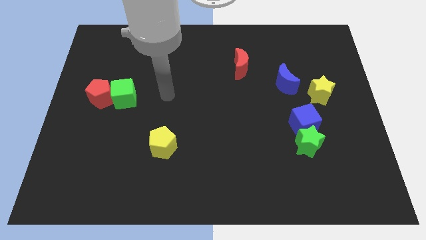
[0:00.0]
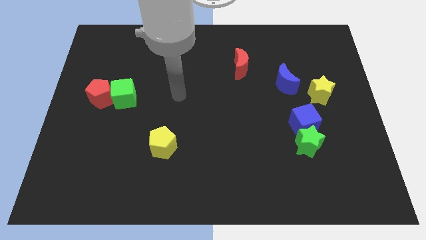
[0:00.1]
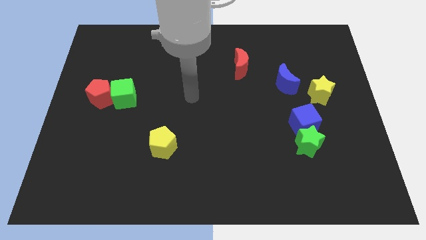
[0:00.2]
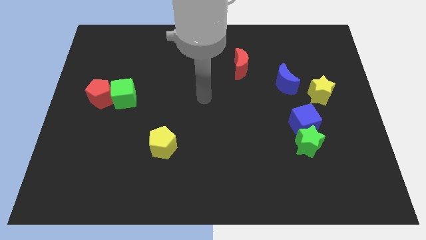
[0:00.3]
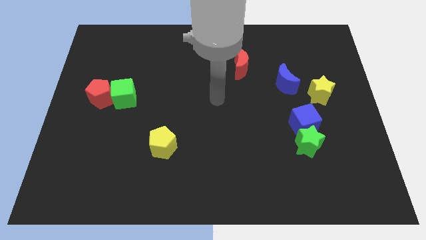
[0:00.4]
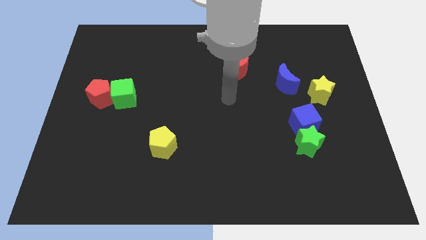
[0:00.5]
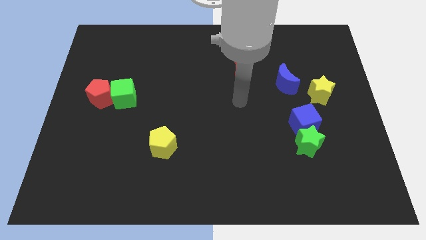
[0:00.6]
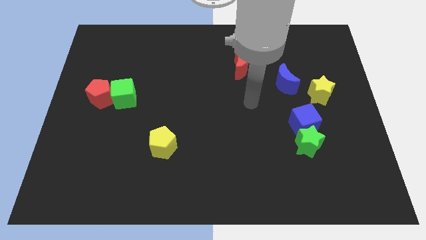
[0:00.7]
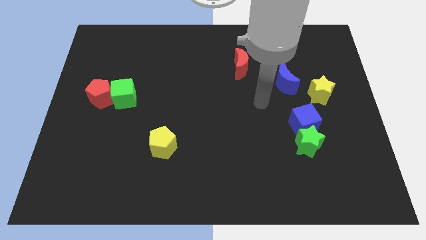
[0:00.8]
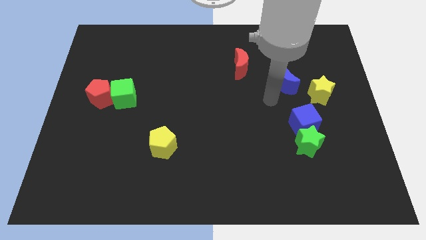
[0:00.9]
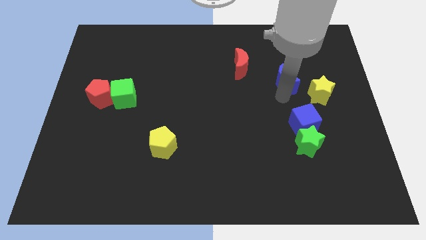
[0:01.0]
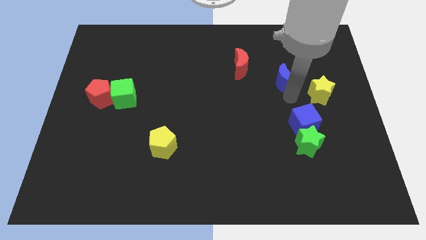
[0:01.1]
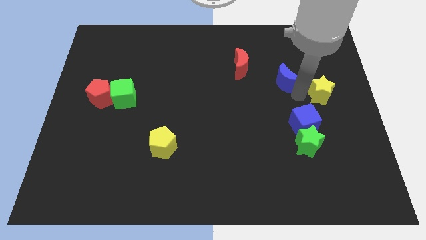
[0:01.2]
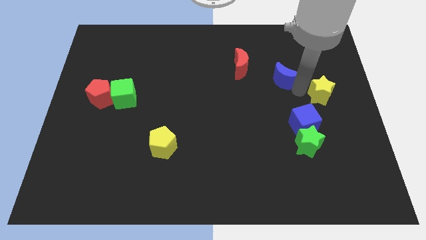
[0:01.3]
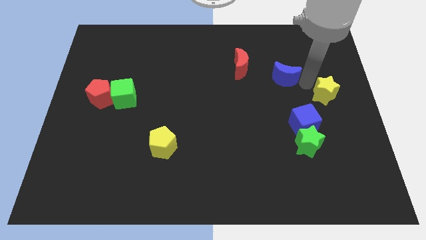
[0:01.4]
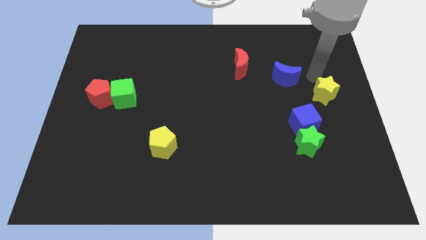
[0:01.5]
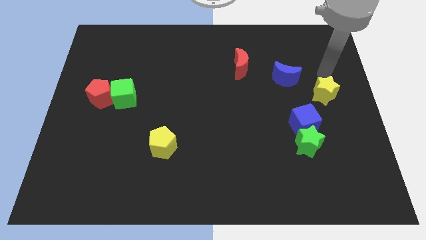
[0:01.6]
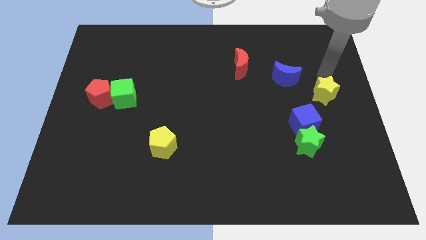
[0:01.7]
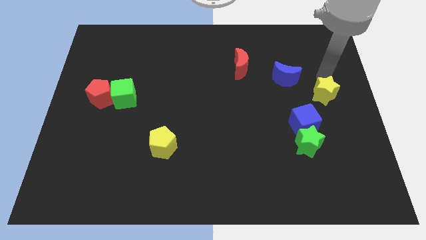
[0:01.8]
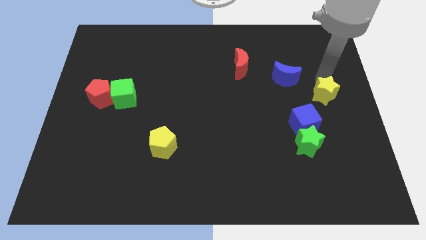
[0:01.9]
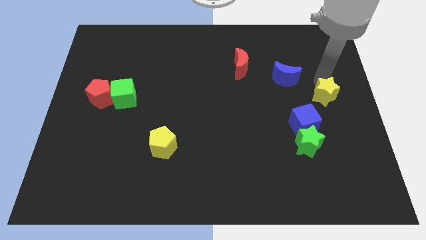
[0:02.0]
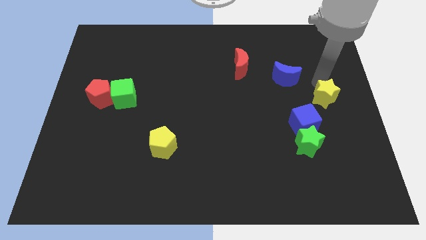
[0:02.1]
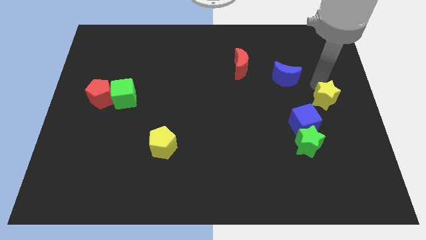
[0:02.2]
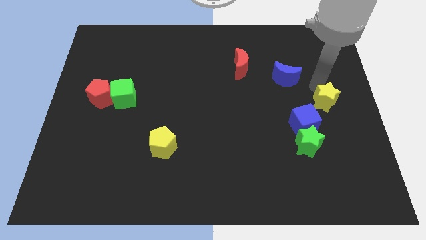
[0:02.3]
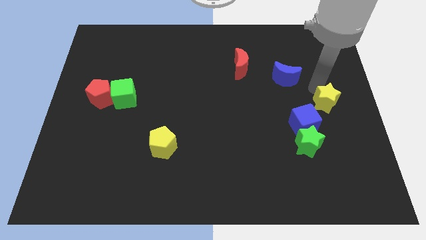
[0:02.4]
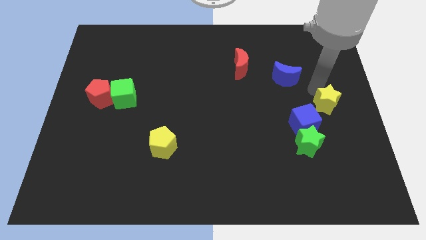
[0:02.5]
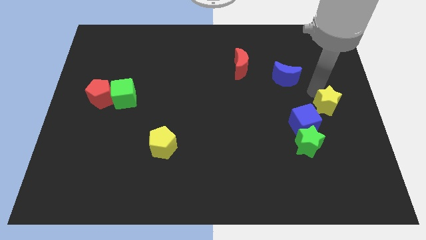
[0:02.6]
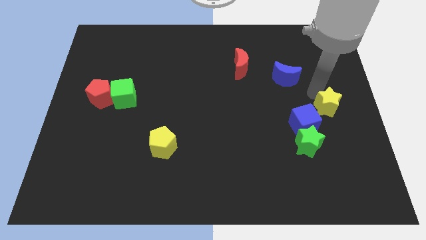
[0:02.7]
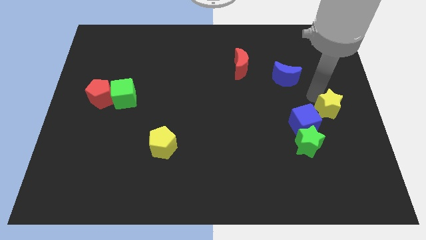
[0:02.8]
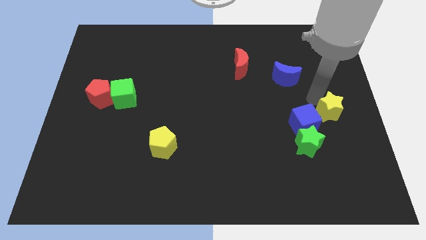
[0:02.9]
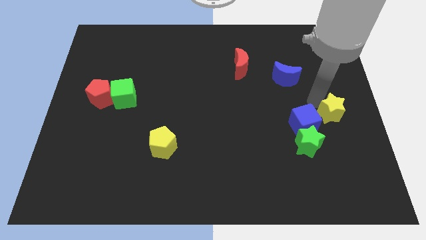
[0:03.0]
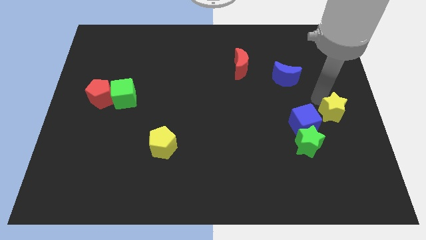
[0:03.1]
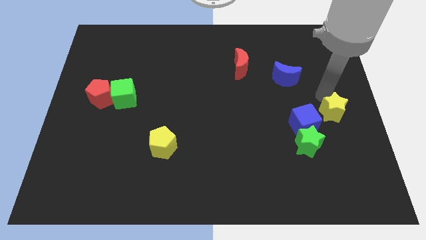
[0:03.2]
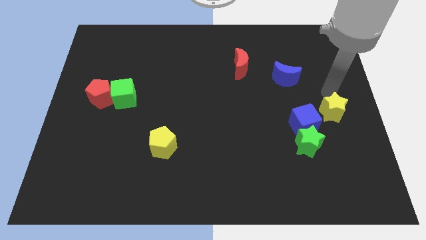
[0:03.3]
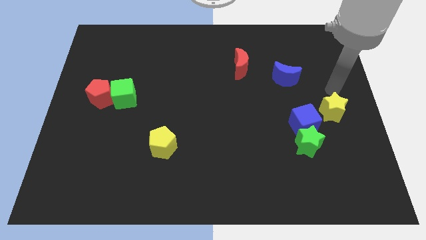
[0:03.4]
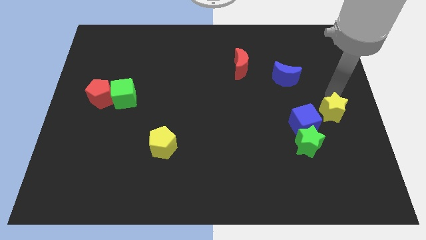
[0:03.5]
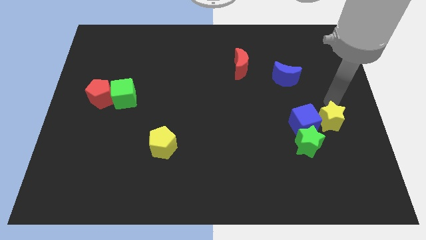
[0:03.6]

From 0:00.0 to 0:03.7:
slide the yellow star downwards a bit

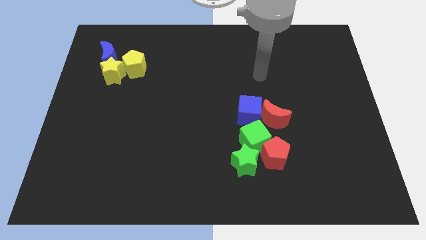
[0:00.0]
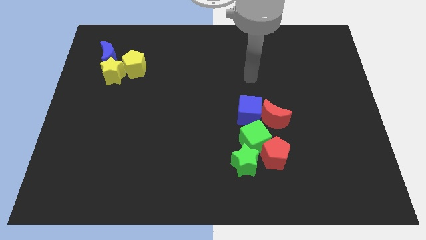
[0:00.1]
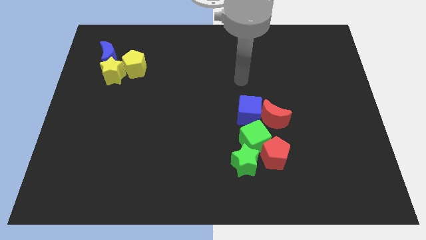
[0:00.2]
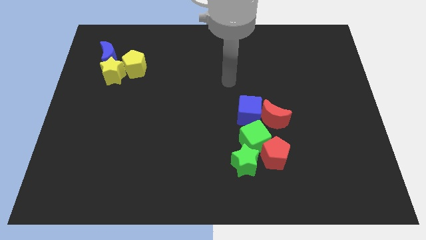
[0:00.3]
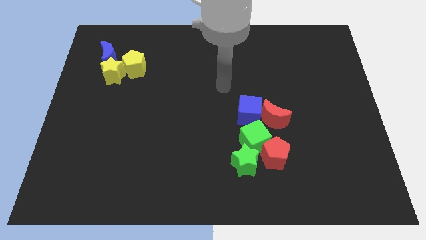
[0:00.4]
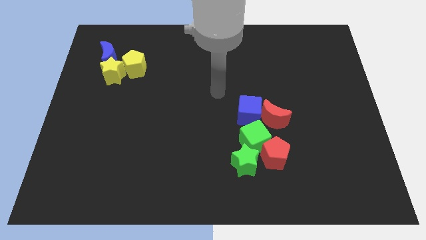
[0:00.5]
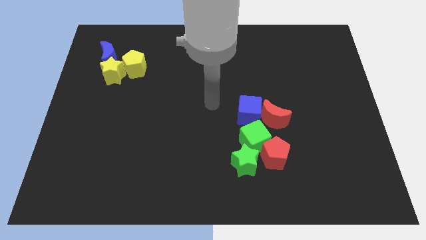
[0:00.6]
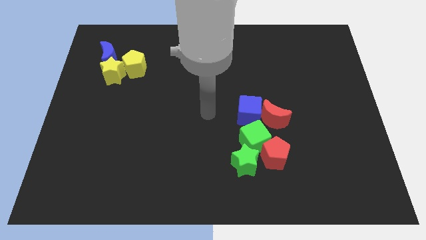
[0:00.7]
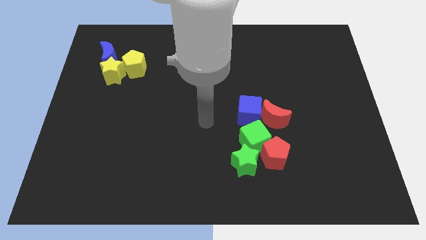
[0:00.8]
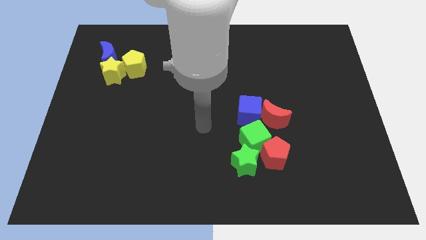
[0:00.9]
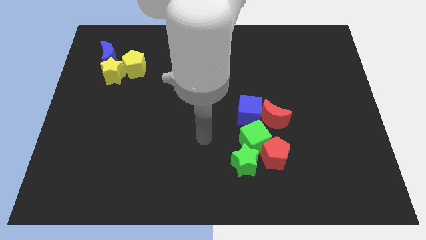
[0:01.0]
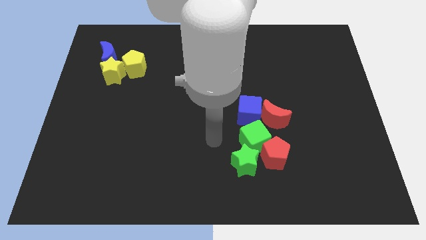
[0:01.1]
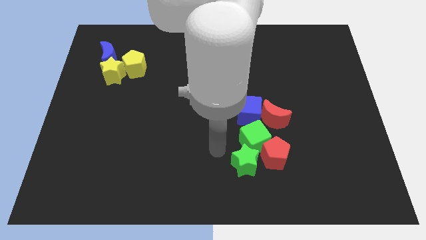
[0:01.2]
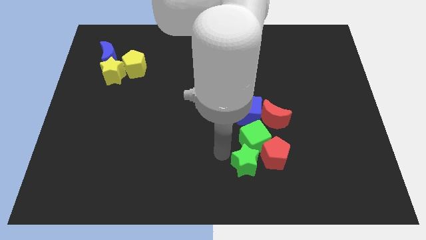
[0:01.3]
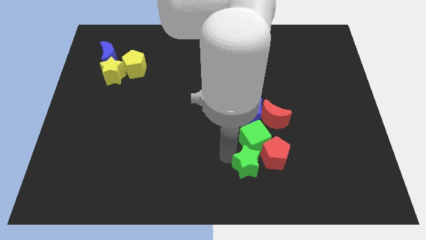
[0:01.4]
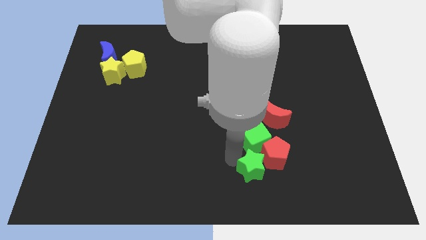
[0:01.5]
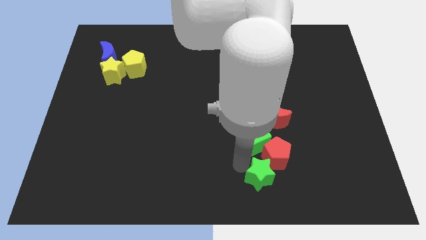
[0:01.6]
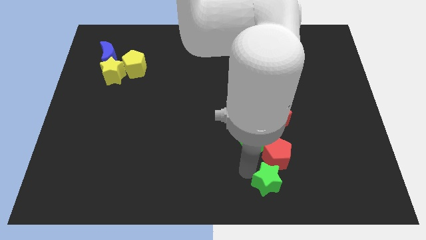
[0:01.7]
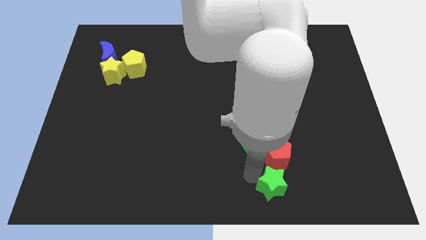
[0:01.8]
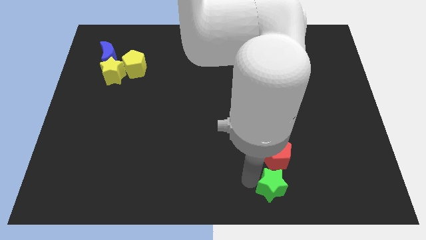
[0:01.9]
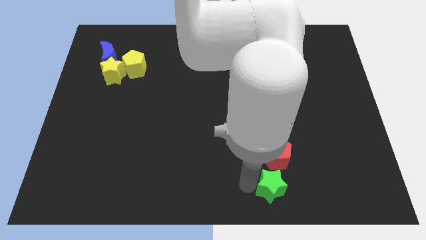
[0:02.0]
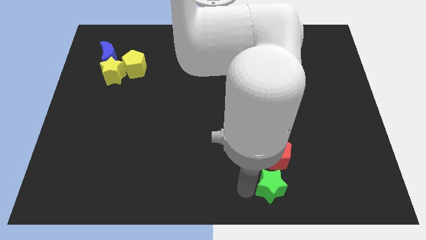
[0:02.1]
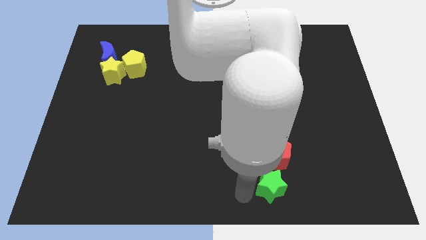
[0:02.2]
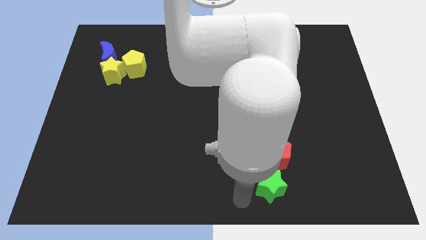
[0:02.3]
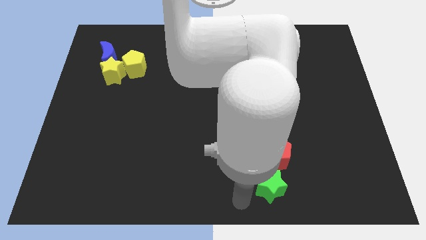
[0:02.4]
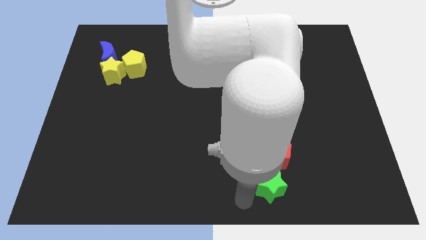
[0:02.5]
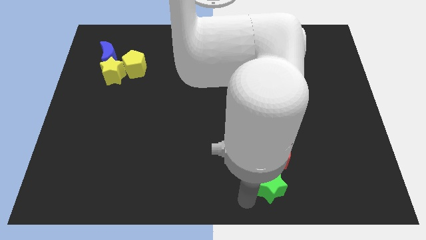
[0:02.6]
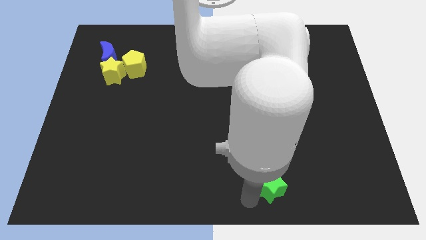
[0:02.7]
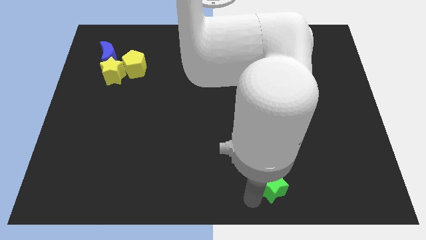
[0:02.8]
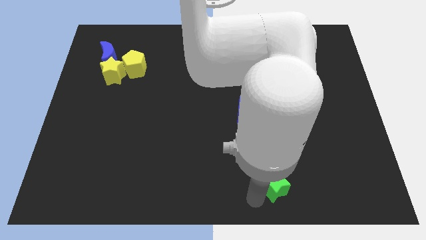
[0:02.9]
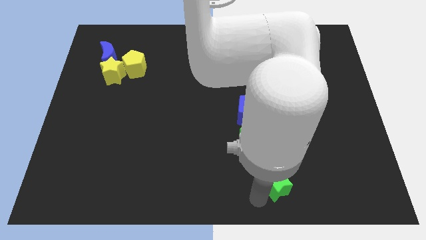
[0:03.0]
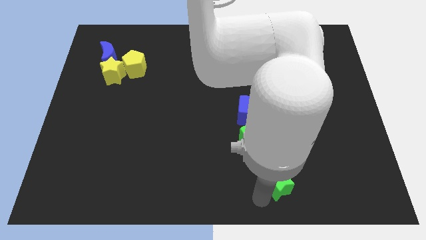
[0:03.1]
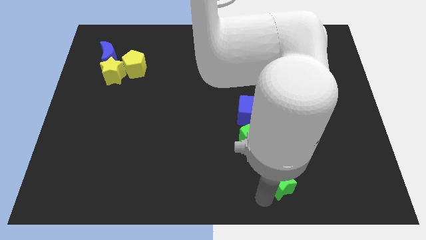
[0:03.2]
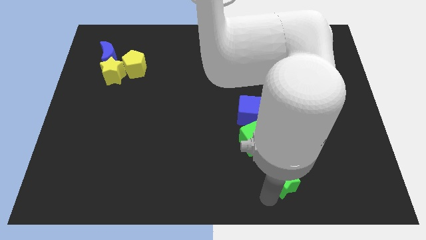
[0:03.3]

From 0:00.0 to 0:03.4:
push the green star right a little

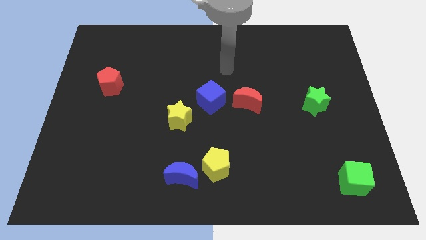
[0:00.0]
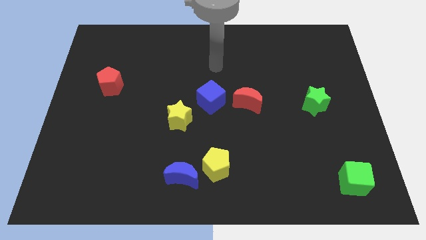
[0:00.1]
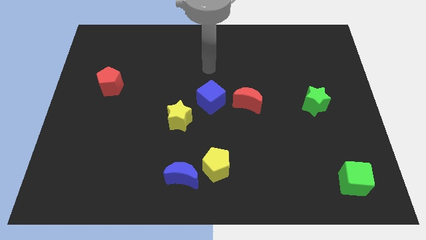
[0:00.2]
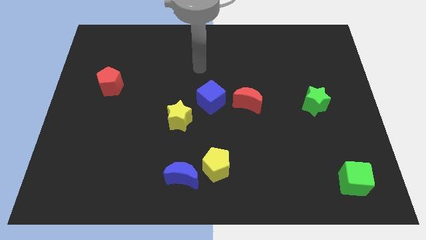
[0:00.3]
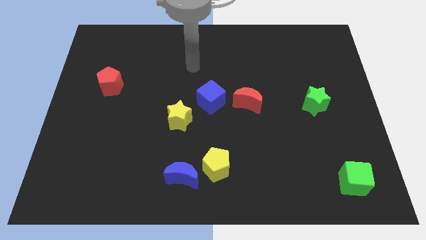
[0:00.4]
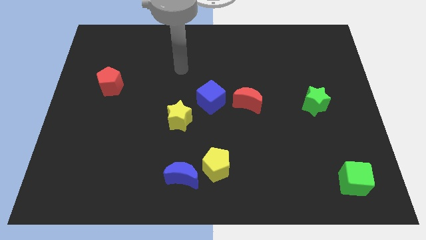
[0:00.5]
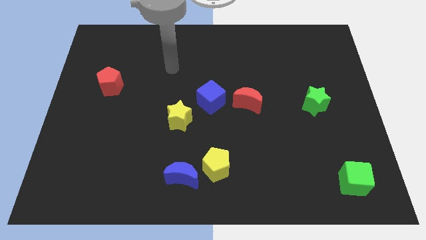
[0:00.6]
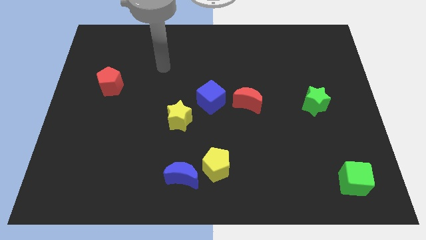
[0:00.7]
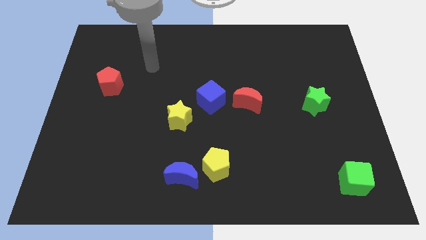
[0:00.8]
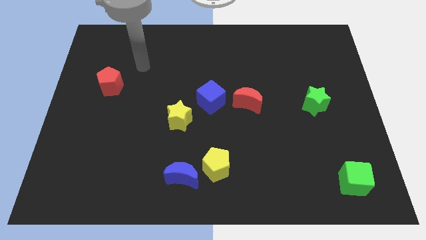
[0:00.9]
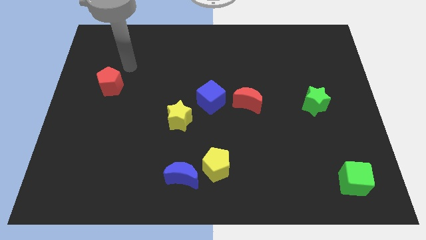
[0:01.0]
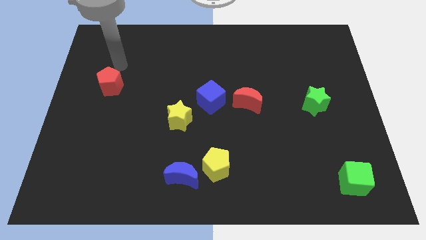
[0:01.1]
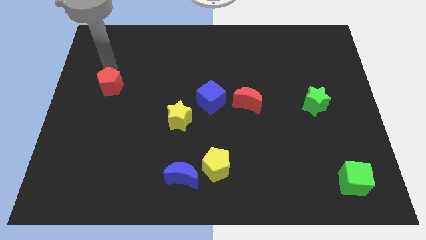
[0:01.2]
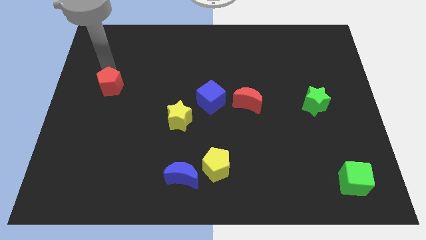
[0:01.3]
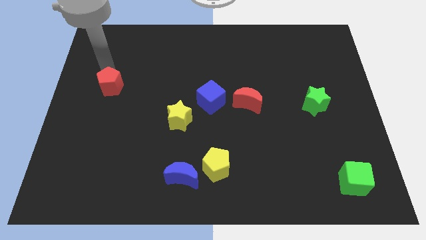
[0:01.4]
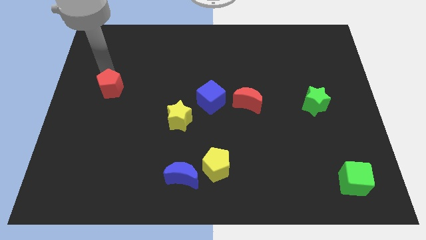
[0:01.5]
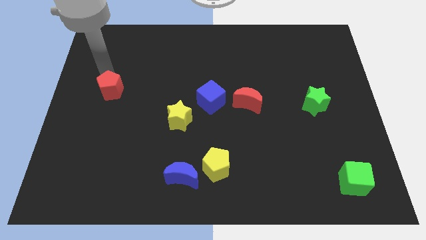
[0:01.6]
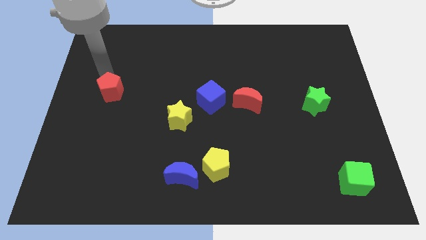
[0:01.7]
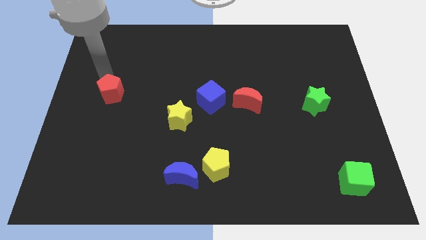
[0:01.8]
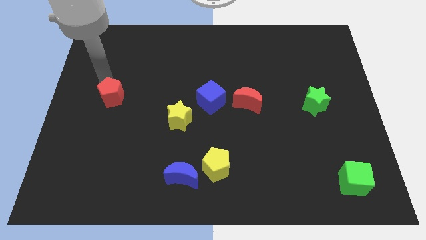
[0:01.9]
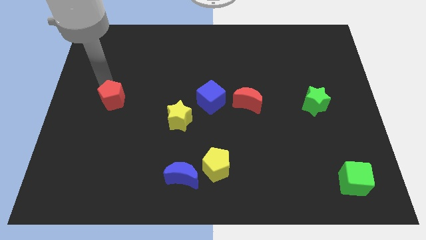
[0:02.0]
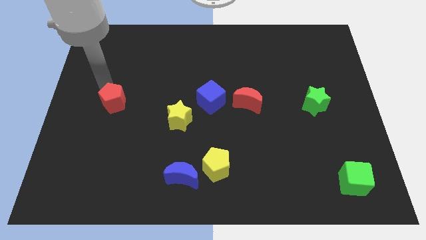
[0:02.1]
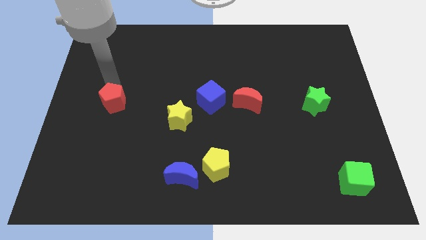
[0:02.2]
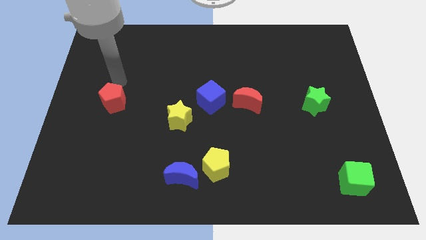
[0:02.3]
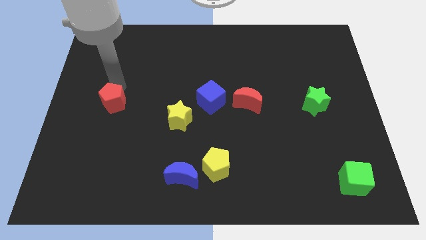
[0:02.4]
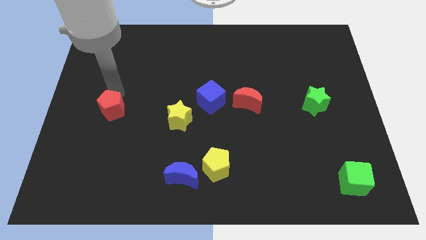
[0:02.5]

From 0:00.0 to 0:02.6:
move the red pentagon downwards a little
